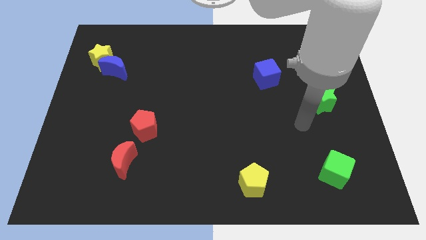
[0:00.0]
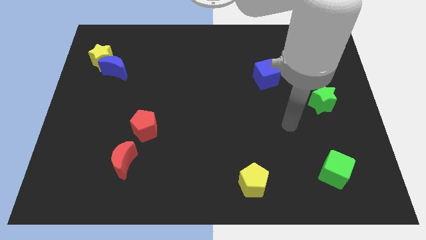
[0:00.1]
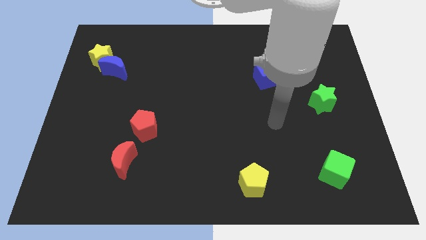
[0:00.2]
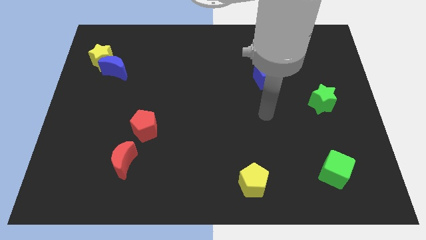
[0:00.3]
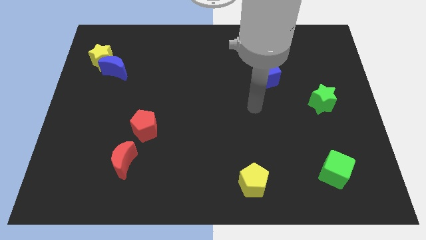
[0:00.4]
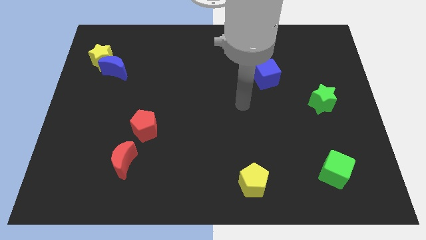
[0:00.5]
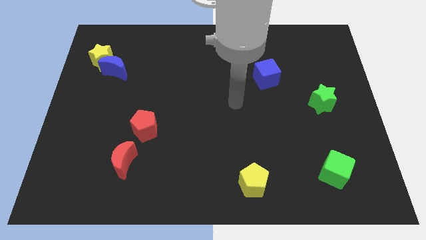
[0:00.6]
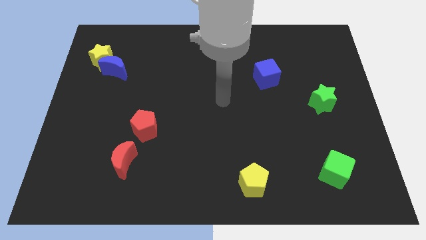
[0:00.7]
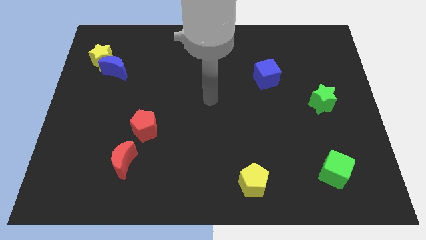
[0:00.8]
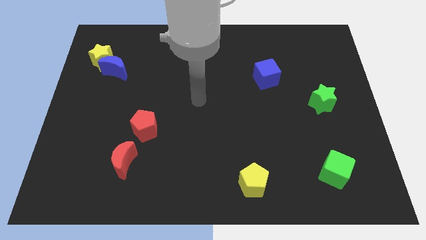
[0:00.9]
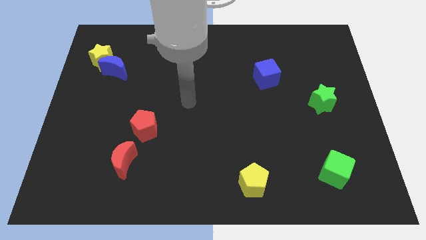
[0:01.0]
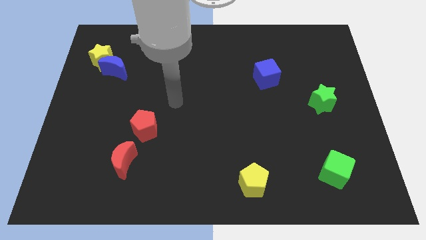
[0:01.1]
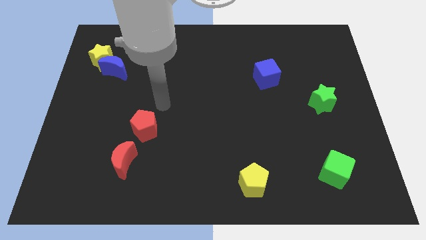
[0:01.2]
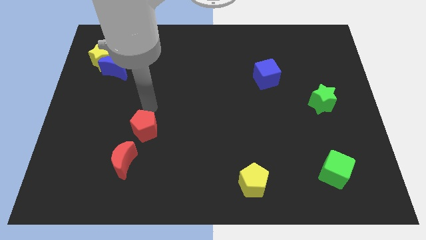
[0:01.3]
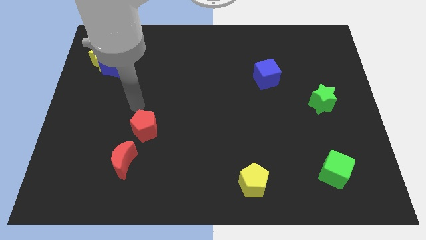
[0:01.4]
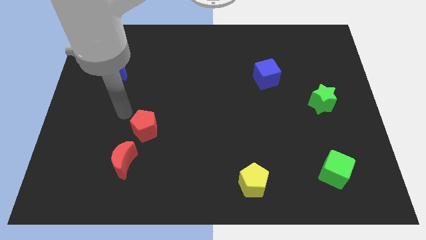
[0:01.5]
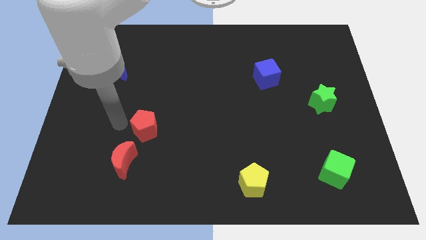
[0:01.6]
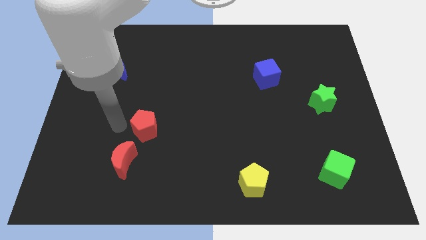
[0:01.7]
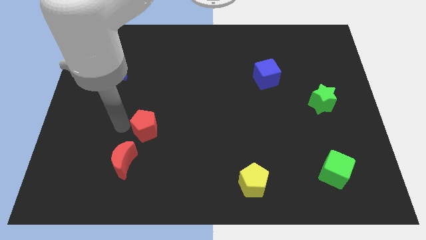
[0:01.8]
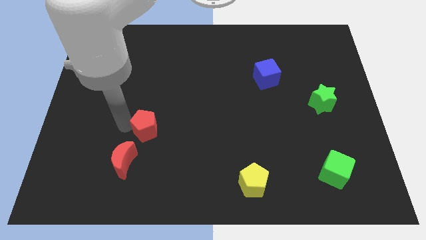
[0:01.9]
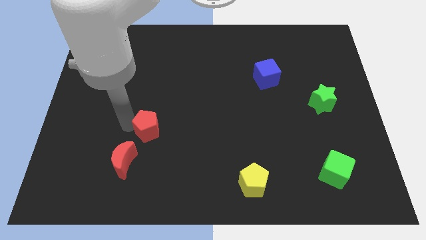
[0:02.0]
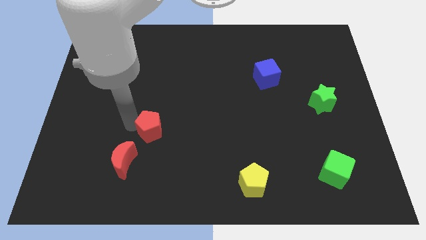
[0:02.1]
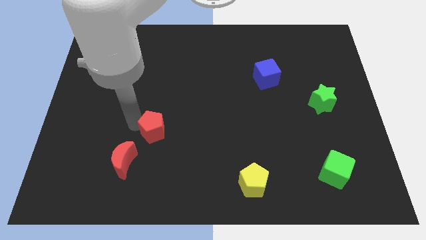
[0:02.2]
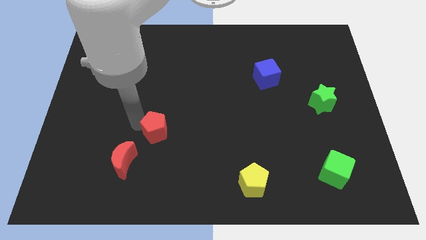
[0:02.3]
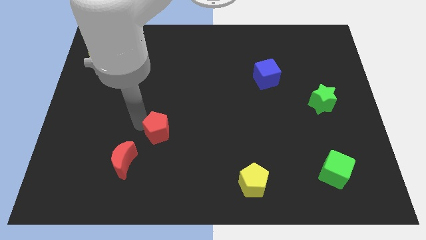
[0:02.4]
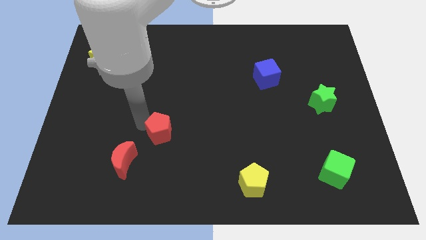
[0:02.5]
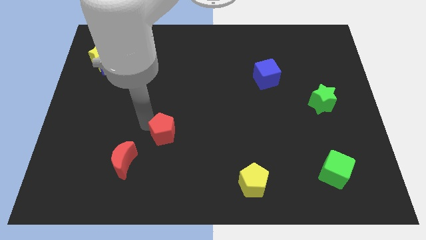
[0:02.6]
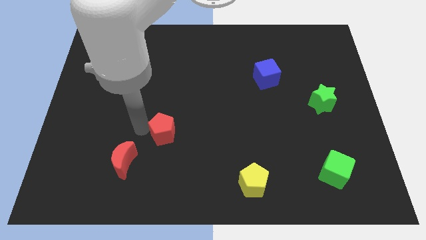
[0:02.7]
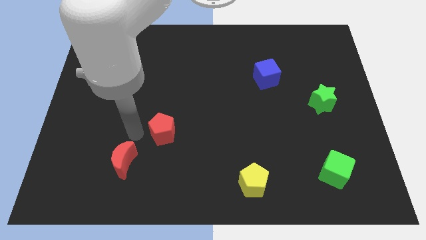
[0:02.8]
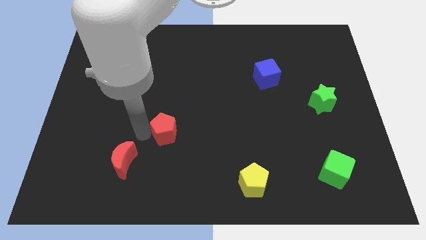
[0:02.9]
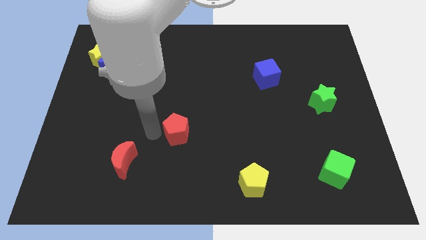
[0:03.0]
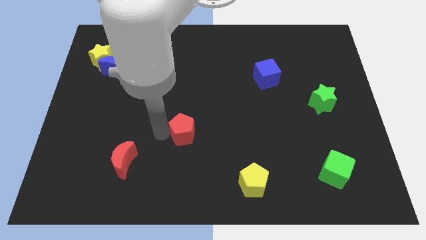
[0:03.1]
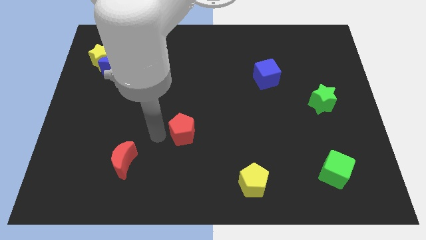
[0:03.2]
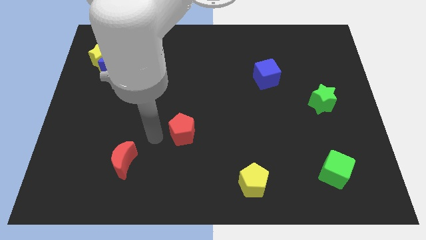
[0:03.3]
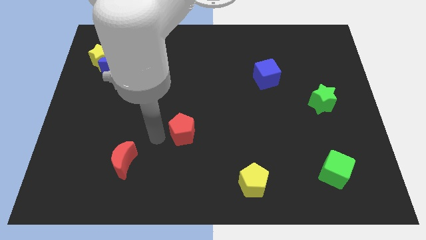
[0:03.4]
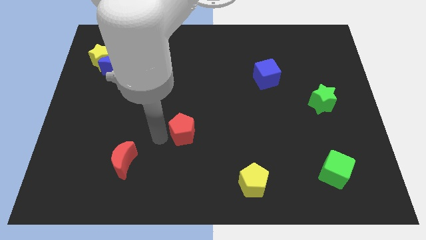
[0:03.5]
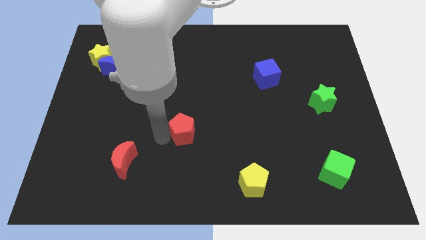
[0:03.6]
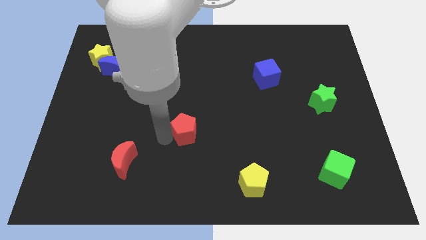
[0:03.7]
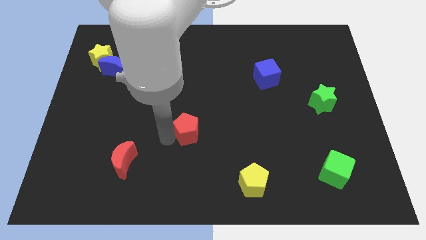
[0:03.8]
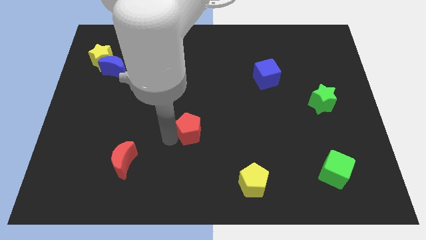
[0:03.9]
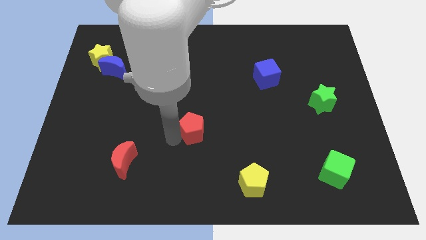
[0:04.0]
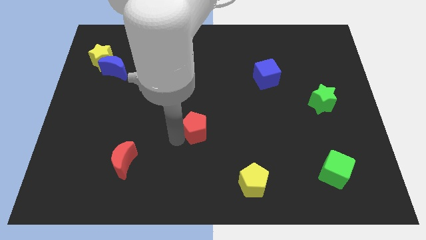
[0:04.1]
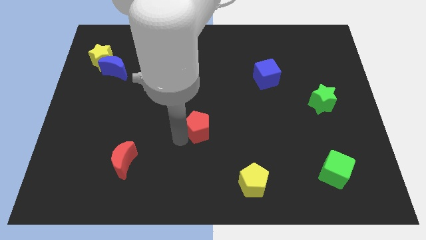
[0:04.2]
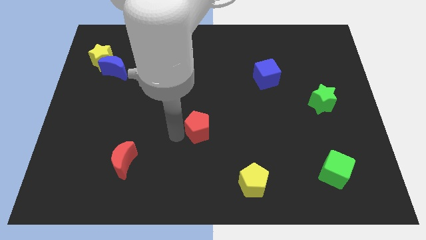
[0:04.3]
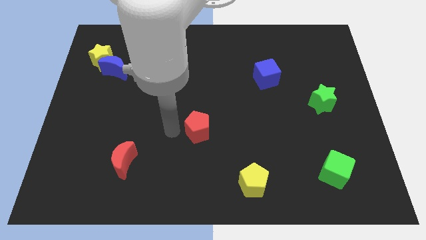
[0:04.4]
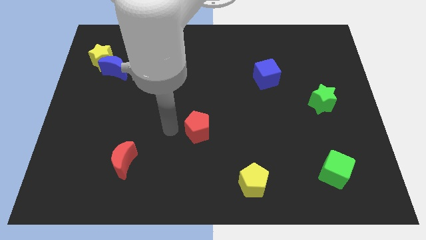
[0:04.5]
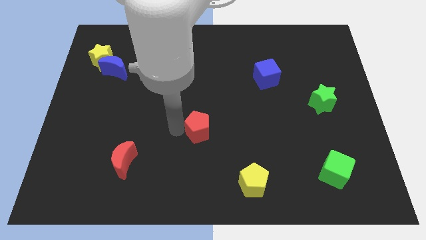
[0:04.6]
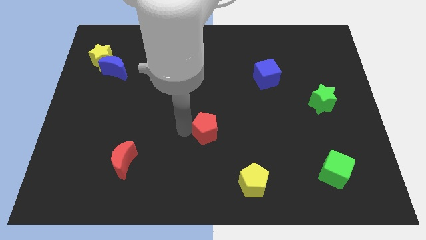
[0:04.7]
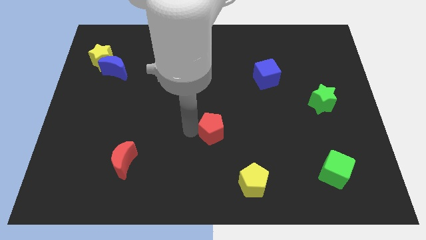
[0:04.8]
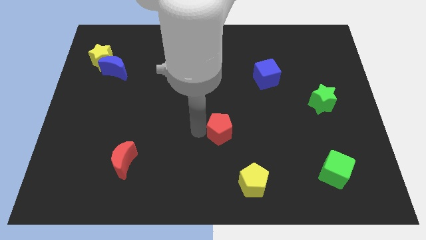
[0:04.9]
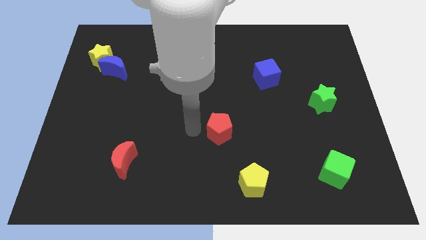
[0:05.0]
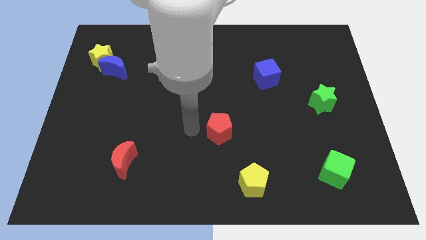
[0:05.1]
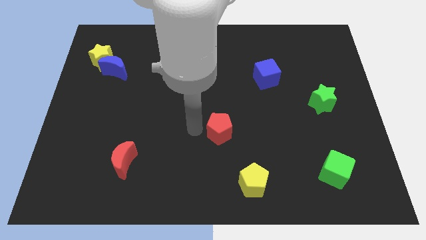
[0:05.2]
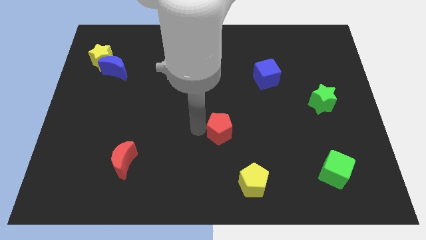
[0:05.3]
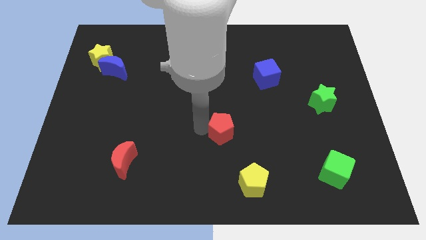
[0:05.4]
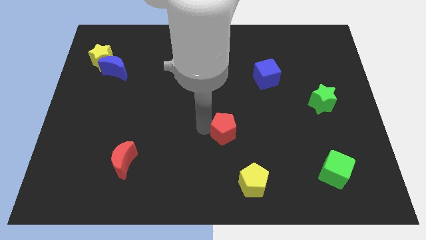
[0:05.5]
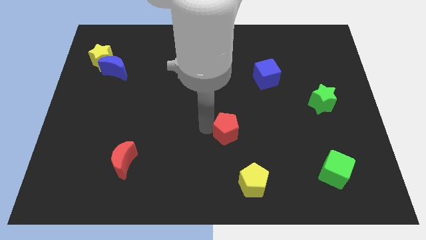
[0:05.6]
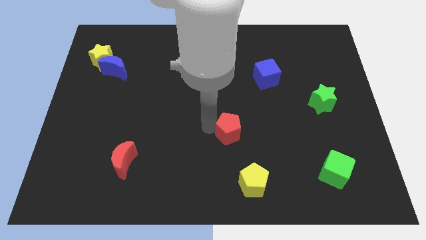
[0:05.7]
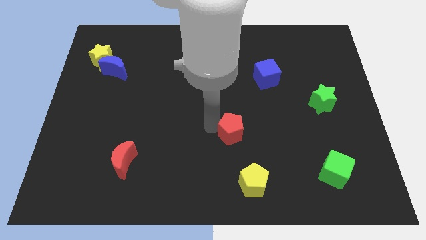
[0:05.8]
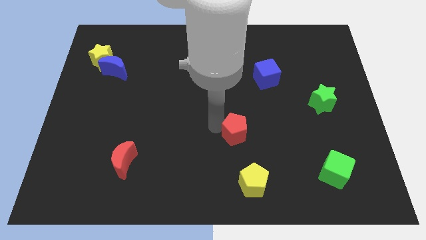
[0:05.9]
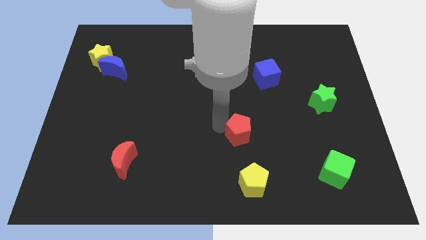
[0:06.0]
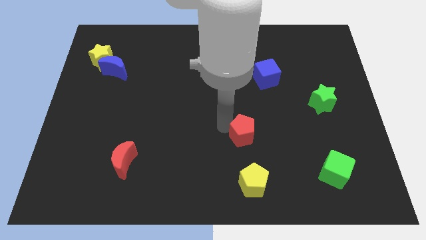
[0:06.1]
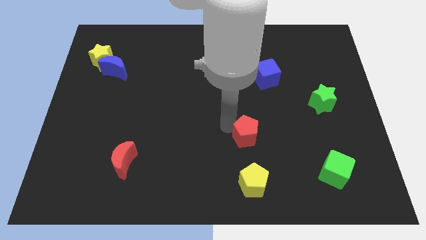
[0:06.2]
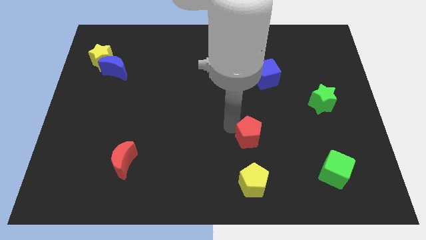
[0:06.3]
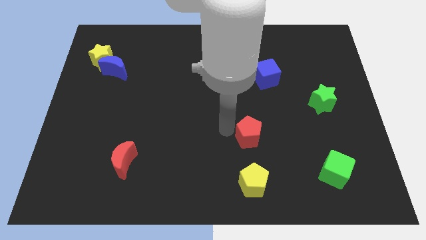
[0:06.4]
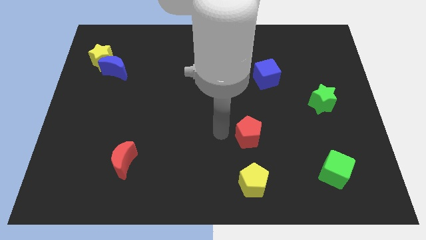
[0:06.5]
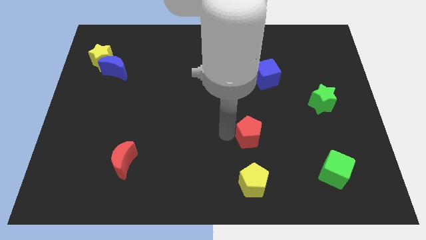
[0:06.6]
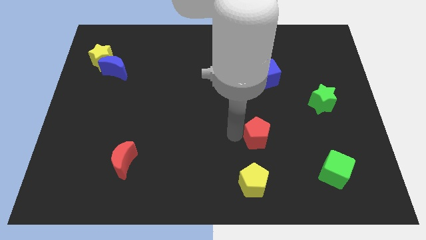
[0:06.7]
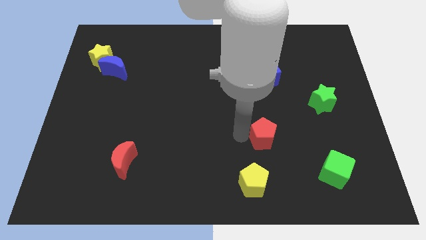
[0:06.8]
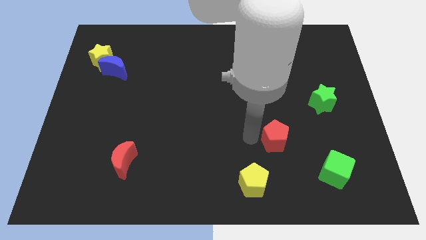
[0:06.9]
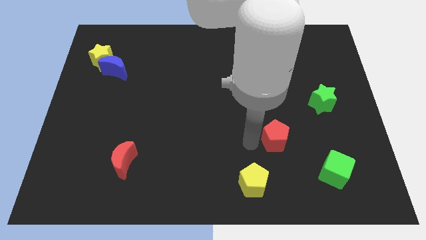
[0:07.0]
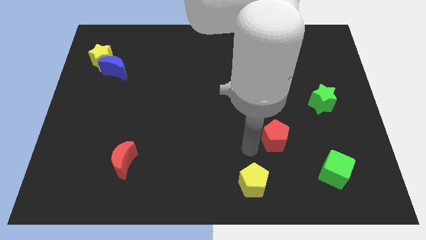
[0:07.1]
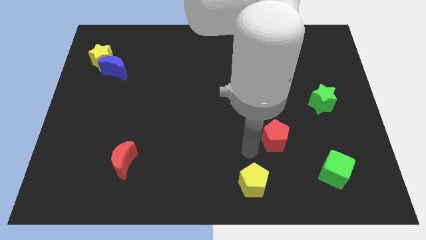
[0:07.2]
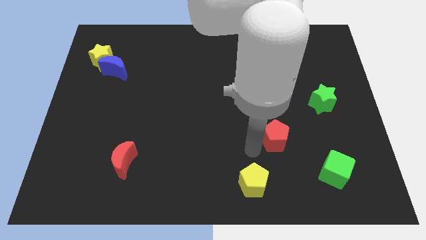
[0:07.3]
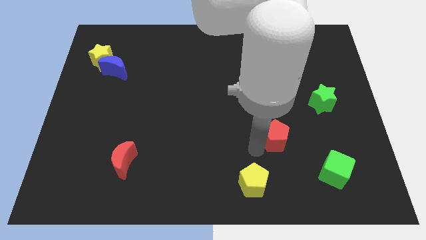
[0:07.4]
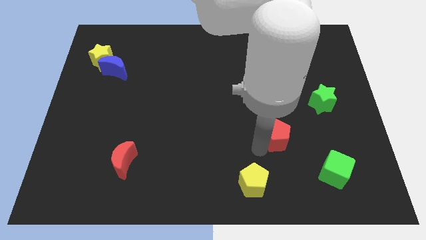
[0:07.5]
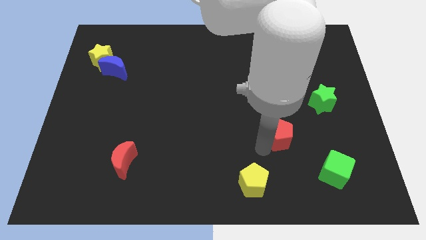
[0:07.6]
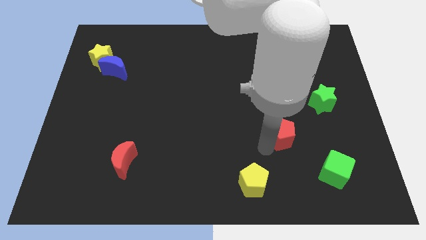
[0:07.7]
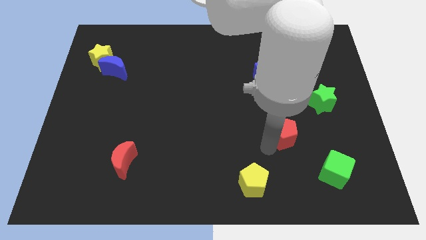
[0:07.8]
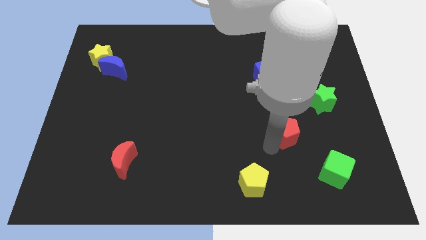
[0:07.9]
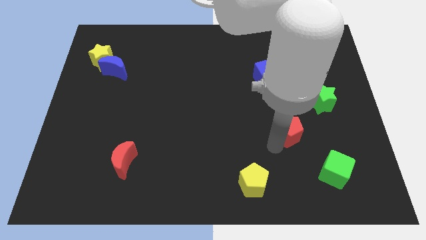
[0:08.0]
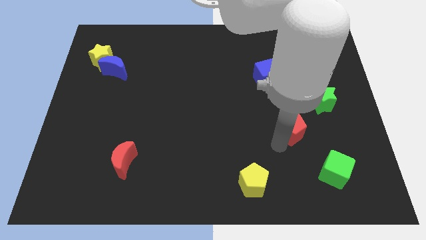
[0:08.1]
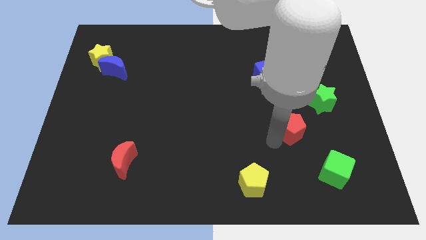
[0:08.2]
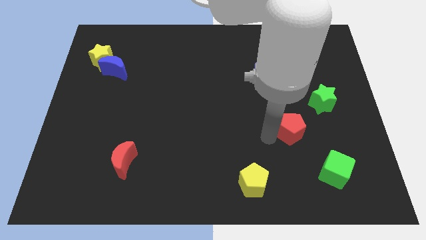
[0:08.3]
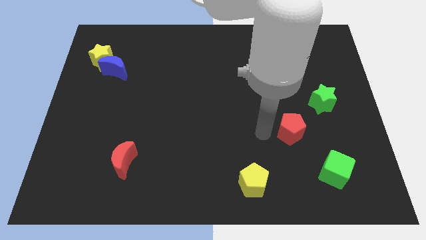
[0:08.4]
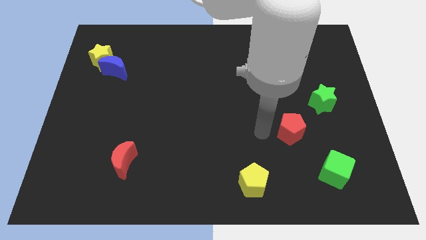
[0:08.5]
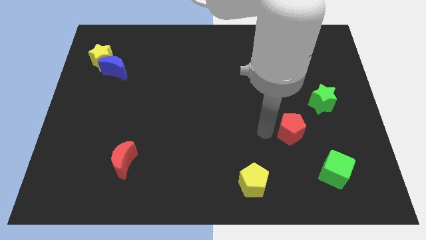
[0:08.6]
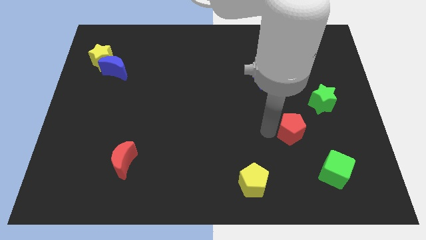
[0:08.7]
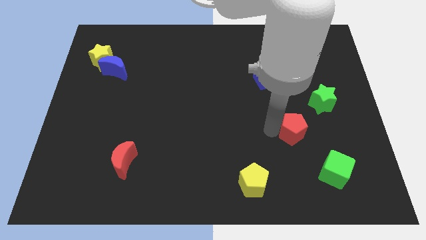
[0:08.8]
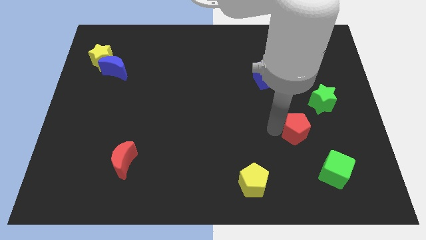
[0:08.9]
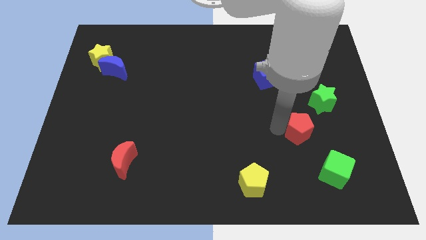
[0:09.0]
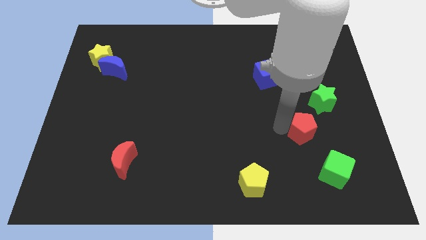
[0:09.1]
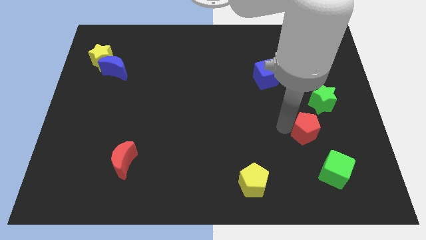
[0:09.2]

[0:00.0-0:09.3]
put the red pentagon to the top of the green cube
